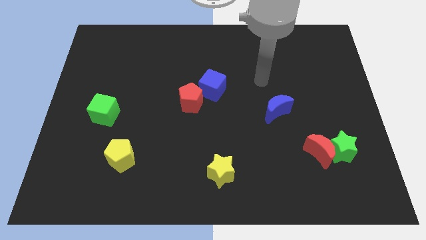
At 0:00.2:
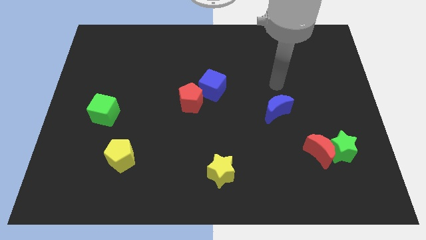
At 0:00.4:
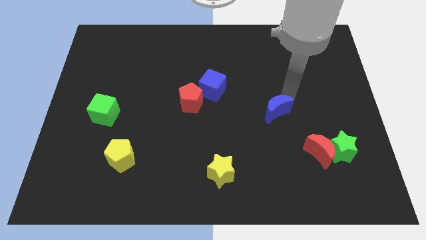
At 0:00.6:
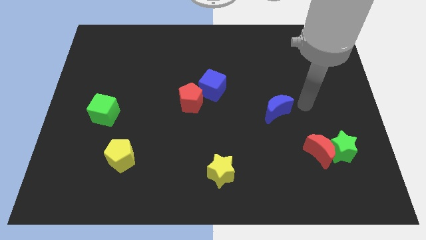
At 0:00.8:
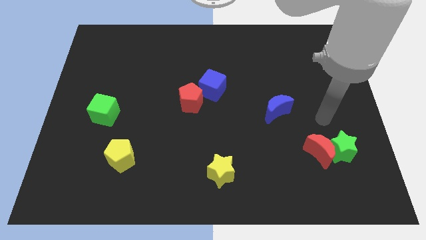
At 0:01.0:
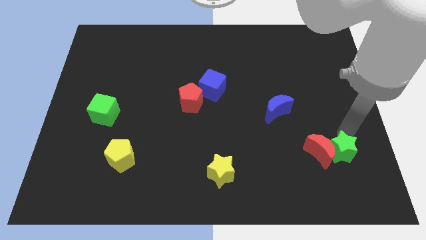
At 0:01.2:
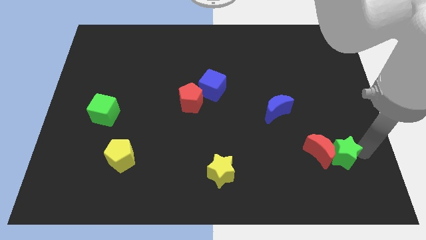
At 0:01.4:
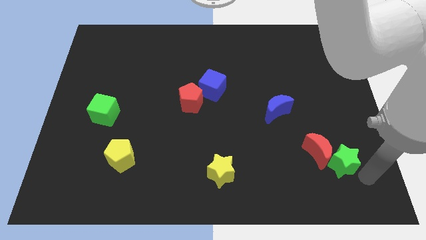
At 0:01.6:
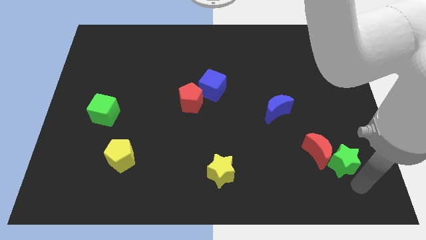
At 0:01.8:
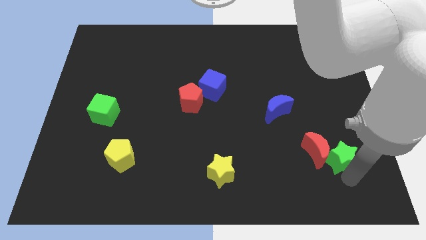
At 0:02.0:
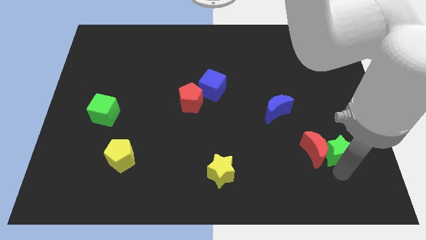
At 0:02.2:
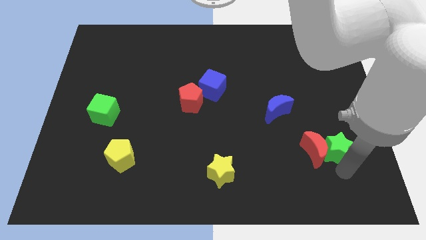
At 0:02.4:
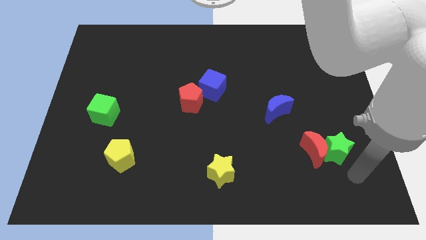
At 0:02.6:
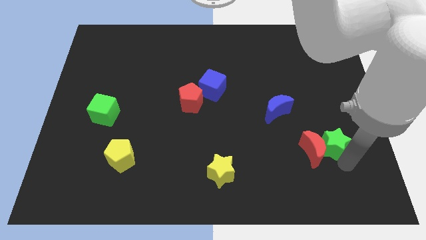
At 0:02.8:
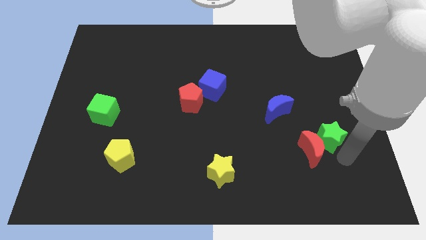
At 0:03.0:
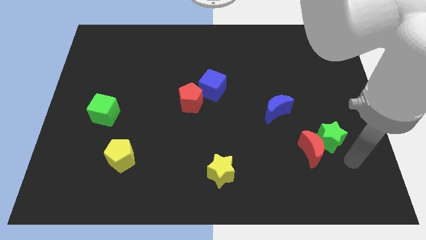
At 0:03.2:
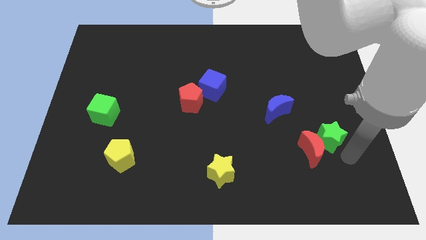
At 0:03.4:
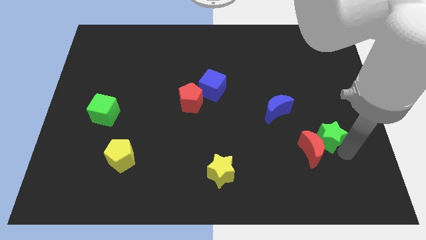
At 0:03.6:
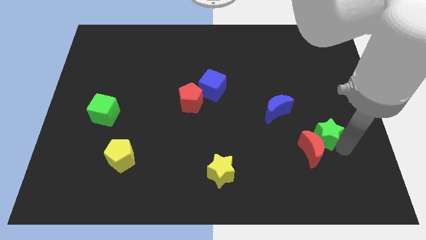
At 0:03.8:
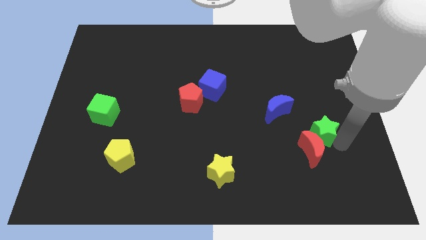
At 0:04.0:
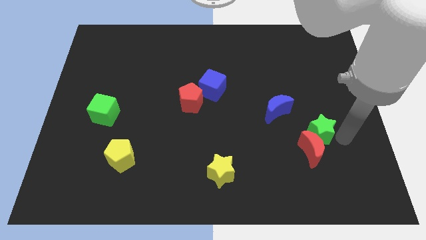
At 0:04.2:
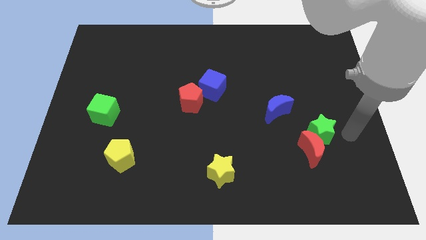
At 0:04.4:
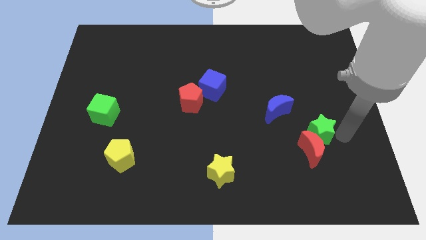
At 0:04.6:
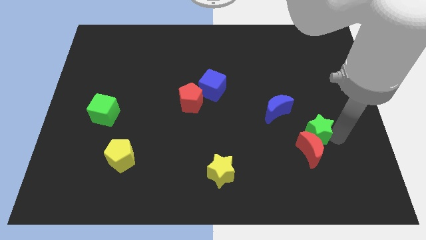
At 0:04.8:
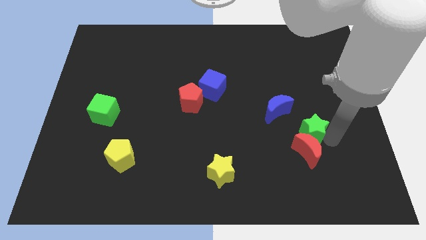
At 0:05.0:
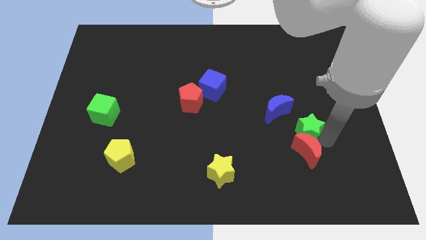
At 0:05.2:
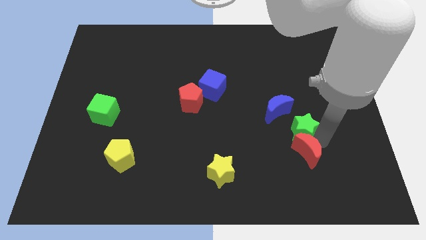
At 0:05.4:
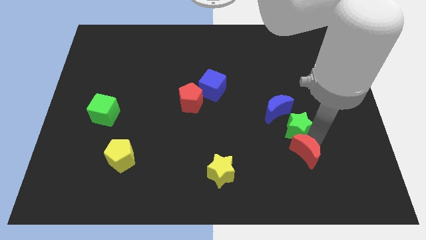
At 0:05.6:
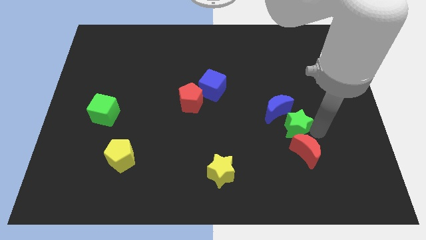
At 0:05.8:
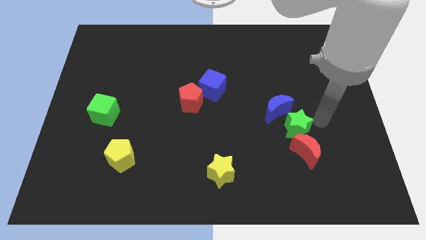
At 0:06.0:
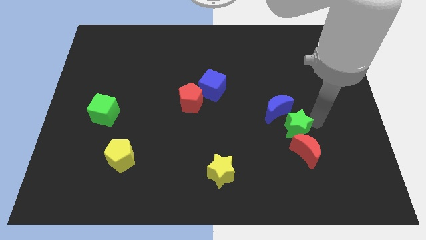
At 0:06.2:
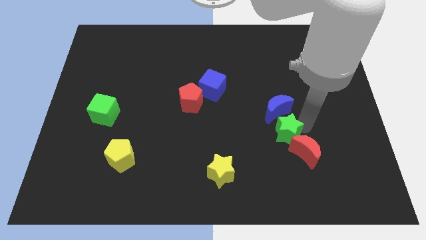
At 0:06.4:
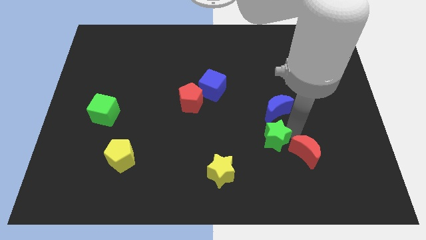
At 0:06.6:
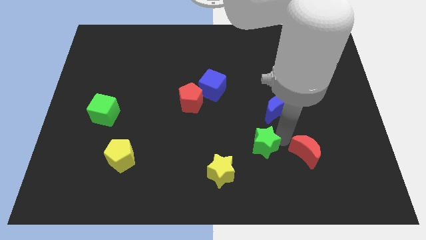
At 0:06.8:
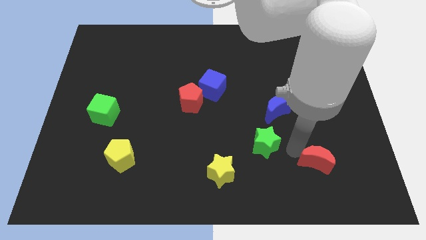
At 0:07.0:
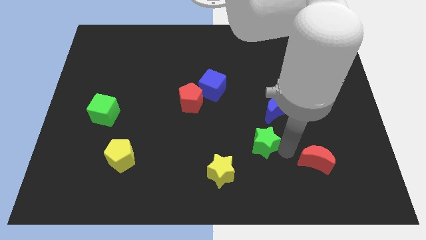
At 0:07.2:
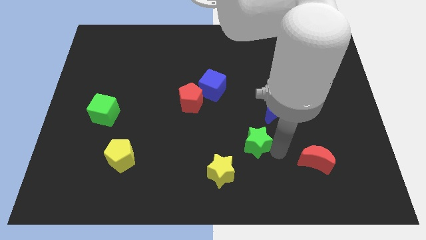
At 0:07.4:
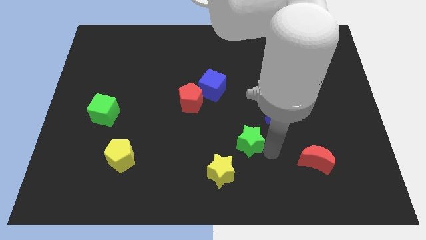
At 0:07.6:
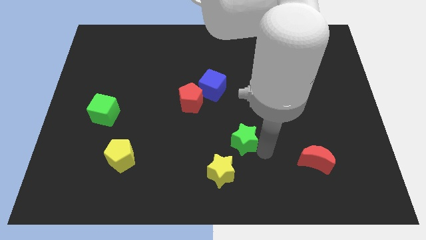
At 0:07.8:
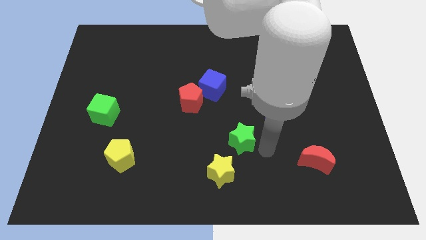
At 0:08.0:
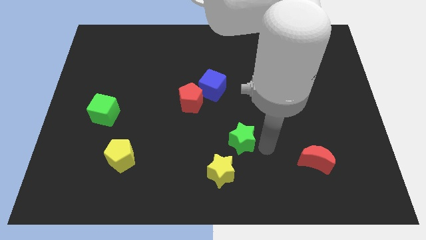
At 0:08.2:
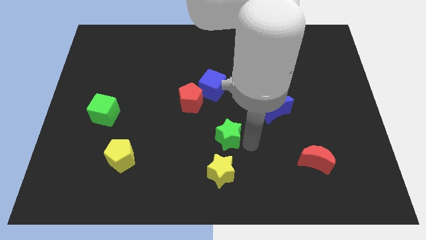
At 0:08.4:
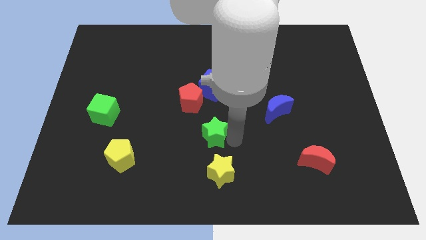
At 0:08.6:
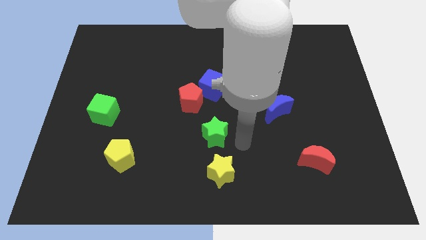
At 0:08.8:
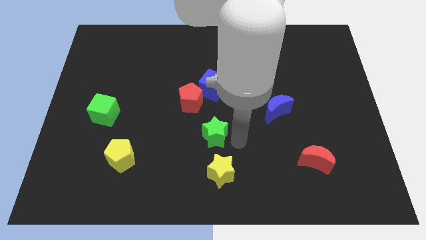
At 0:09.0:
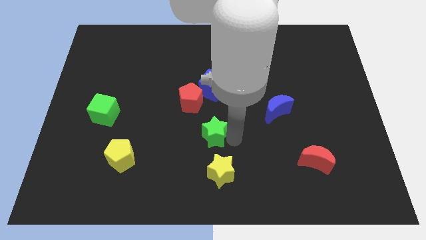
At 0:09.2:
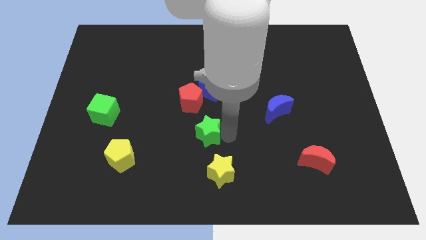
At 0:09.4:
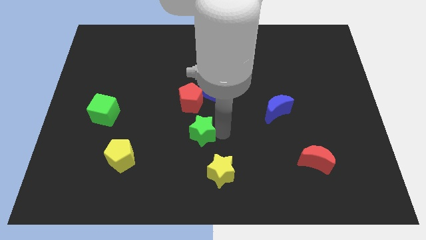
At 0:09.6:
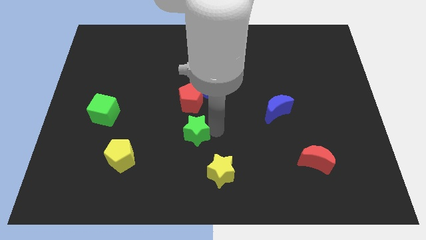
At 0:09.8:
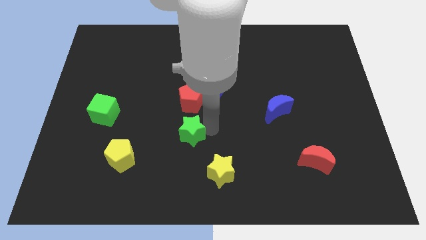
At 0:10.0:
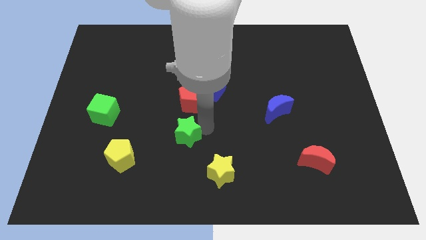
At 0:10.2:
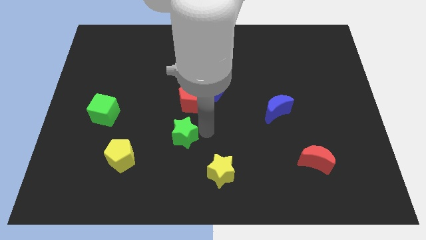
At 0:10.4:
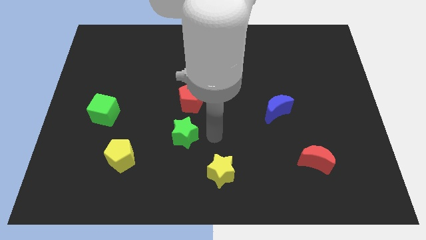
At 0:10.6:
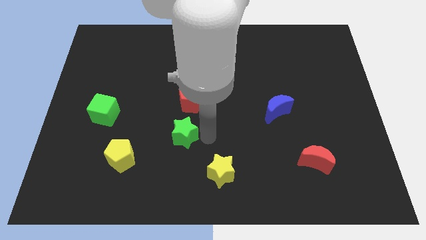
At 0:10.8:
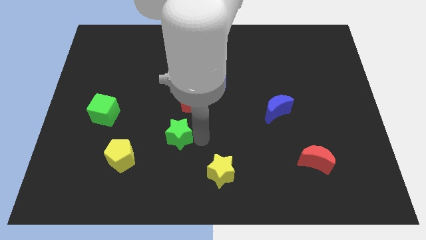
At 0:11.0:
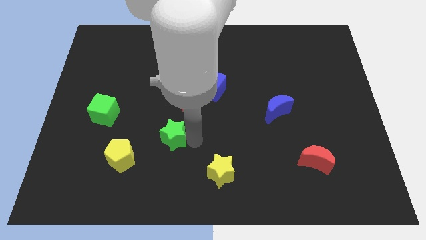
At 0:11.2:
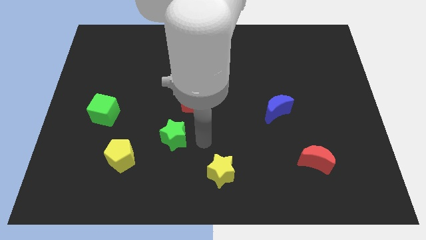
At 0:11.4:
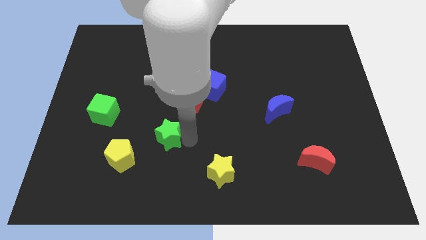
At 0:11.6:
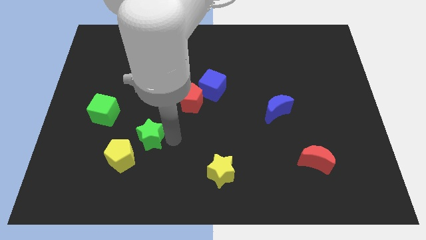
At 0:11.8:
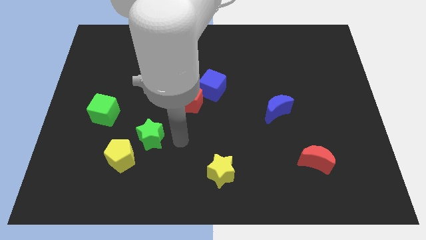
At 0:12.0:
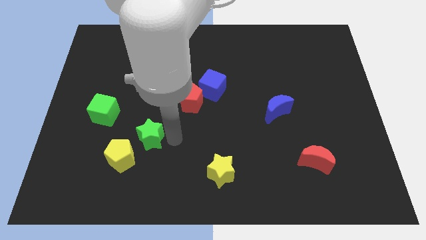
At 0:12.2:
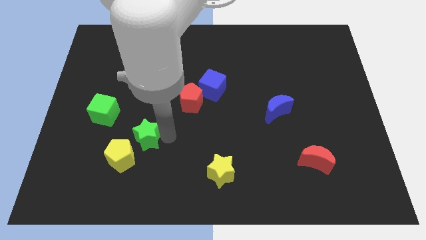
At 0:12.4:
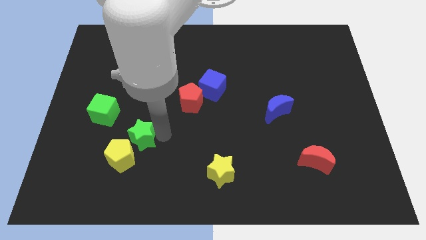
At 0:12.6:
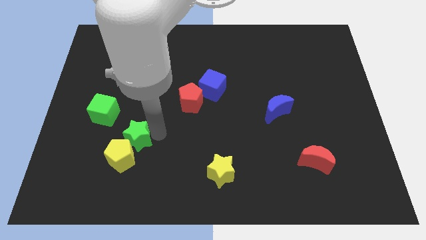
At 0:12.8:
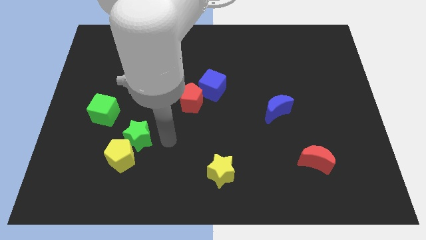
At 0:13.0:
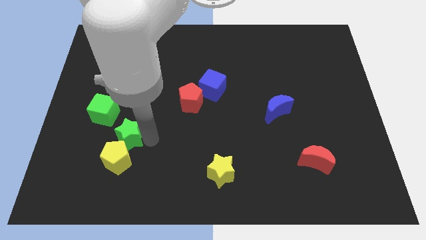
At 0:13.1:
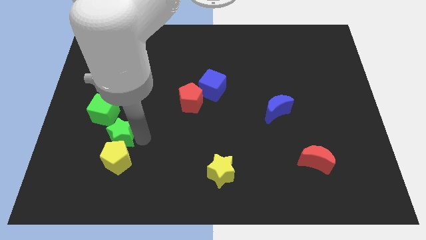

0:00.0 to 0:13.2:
push the green star diagonally up and to the left of the yellow pentagon

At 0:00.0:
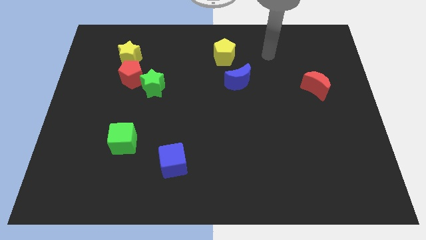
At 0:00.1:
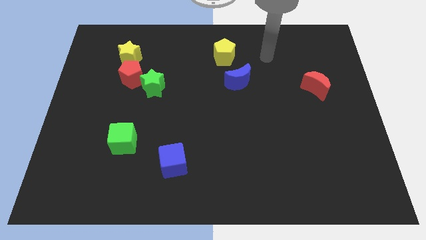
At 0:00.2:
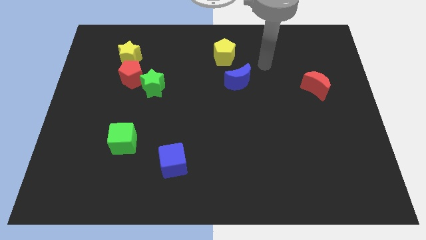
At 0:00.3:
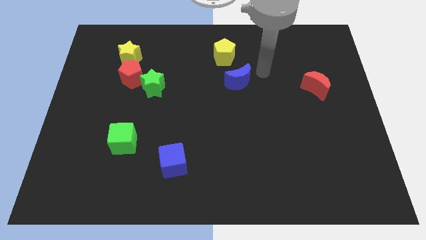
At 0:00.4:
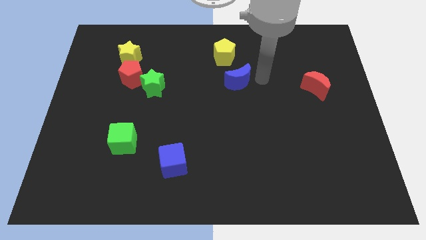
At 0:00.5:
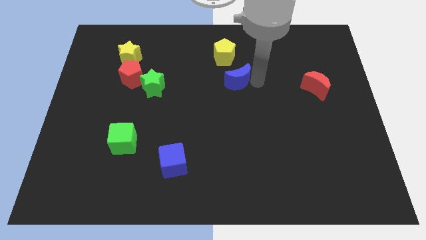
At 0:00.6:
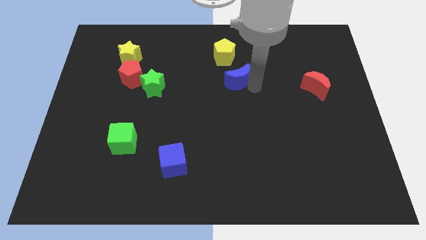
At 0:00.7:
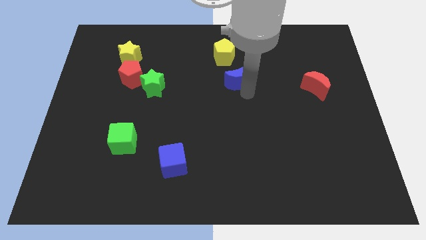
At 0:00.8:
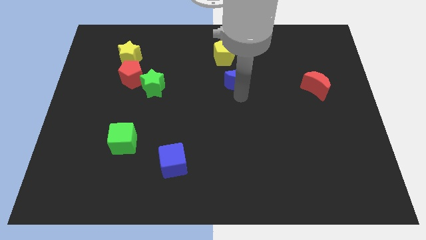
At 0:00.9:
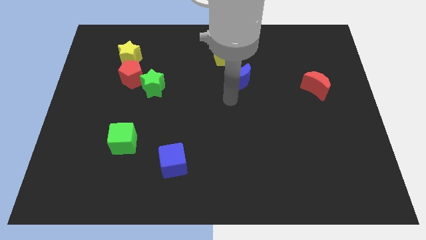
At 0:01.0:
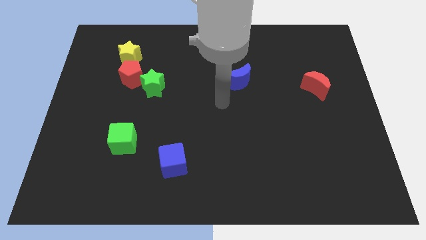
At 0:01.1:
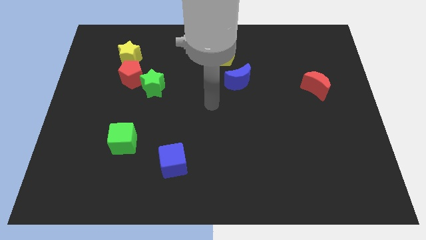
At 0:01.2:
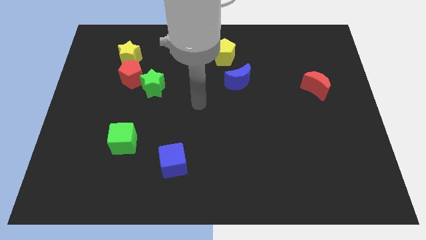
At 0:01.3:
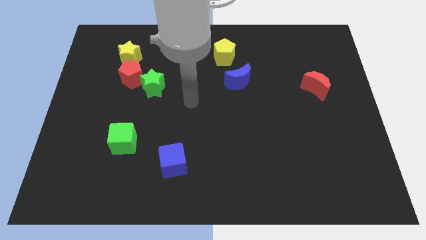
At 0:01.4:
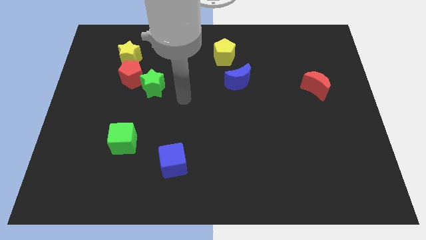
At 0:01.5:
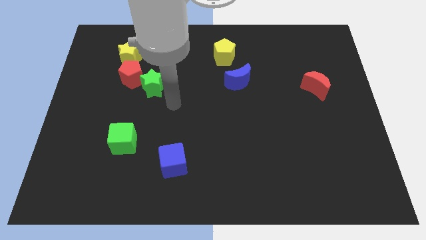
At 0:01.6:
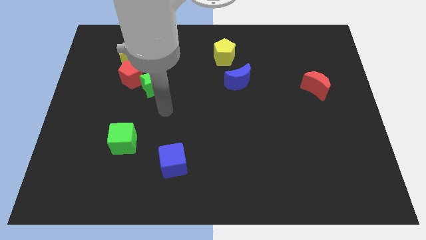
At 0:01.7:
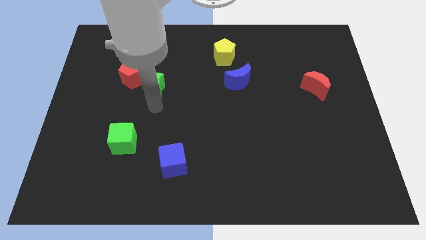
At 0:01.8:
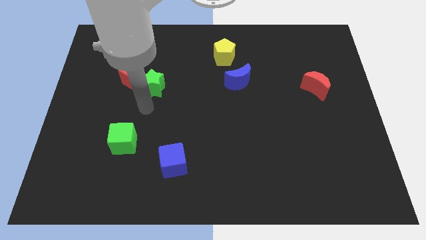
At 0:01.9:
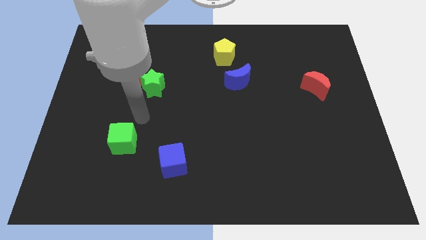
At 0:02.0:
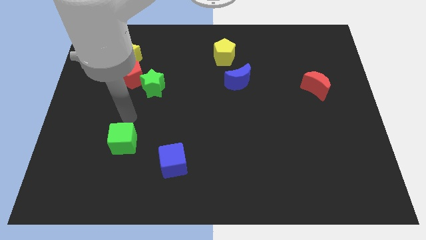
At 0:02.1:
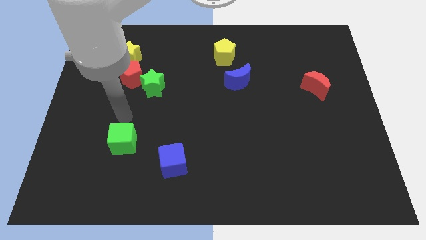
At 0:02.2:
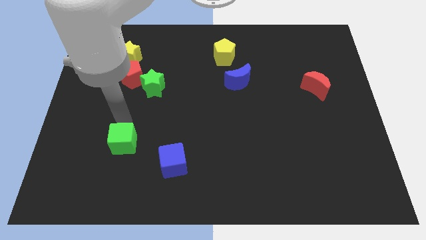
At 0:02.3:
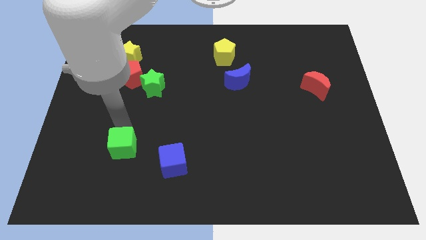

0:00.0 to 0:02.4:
move the green cube left of the blue cube
